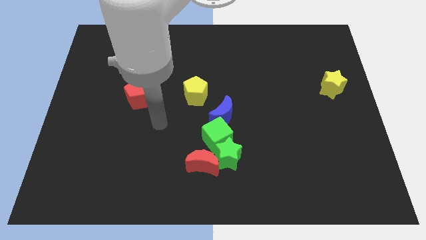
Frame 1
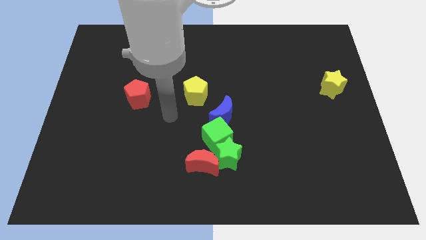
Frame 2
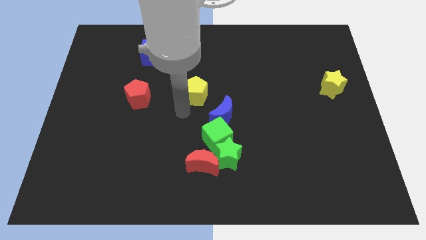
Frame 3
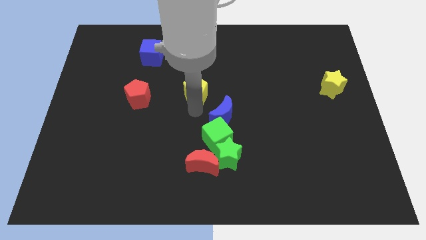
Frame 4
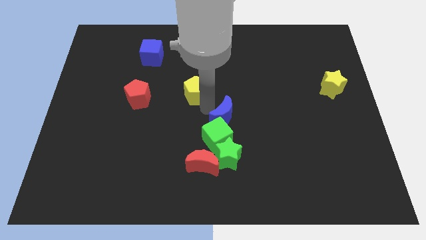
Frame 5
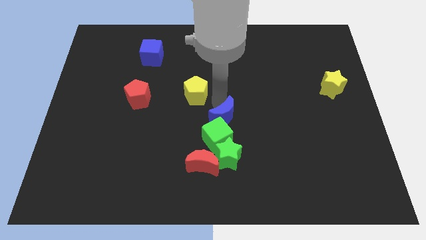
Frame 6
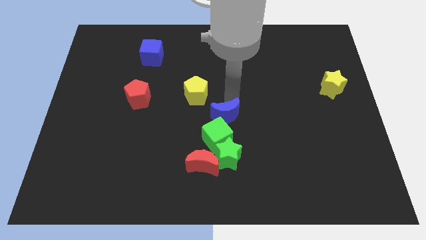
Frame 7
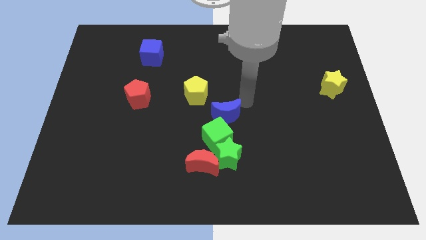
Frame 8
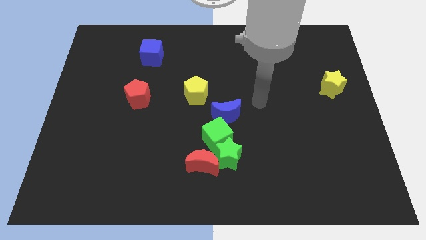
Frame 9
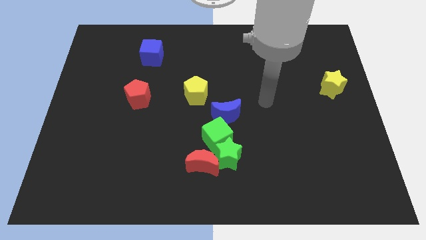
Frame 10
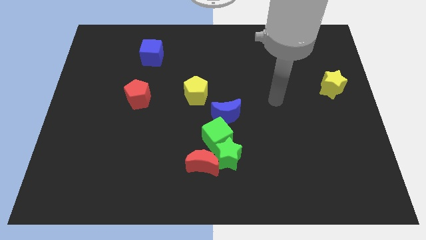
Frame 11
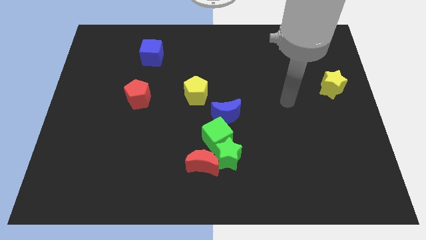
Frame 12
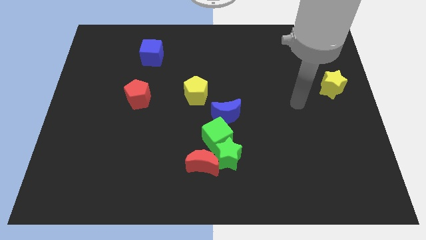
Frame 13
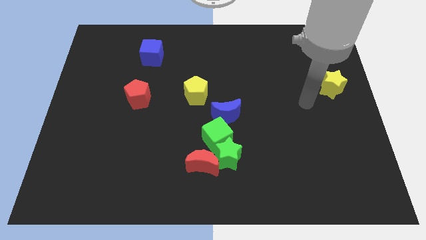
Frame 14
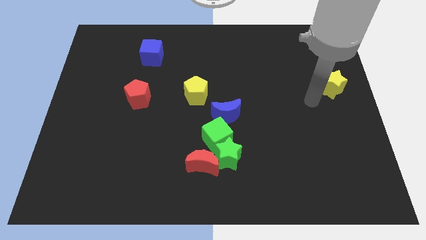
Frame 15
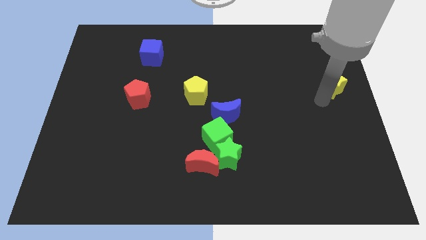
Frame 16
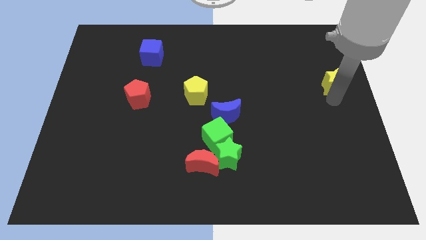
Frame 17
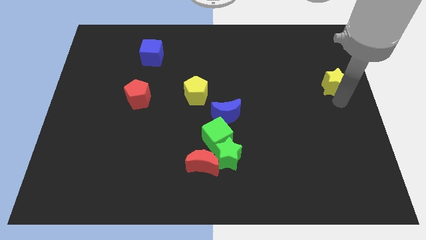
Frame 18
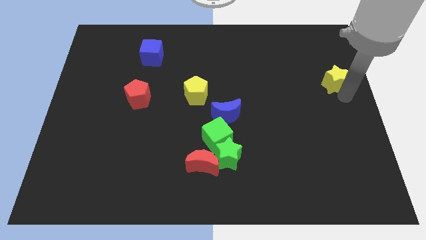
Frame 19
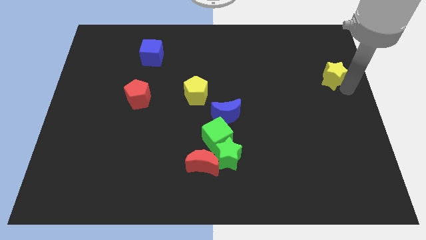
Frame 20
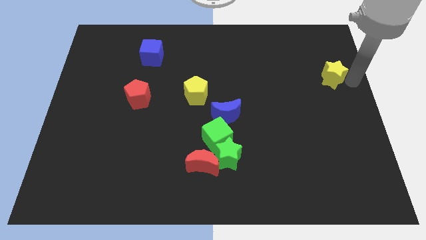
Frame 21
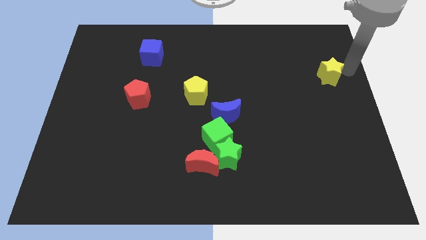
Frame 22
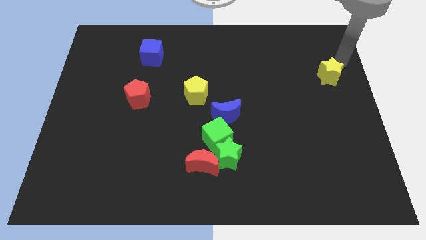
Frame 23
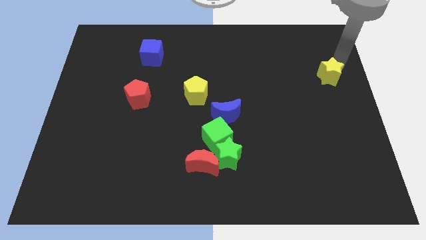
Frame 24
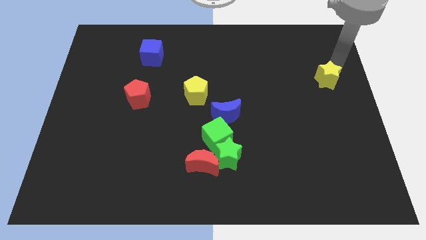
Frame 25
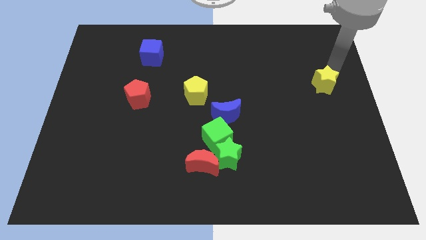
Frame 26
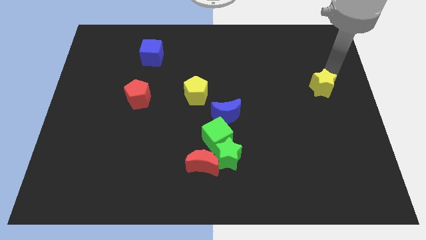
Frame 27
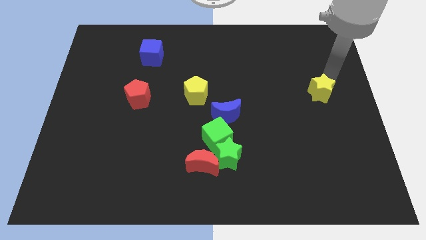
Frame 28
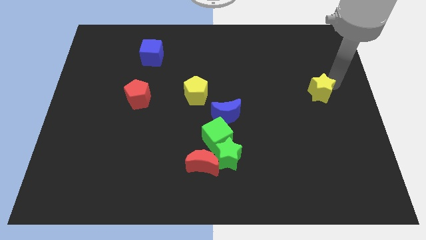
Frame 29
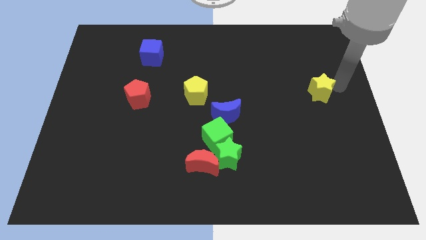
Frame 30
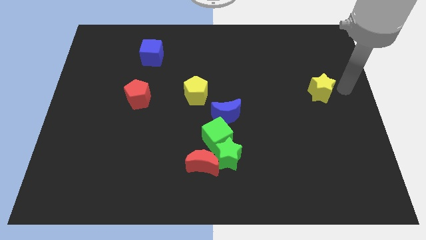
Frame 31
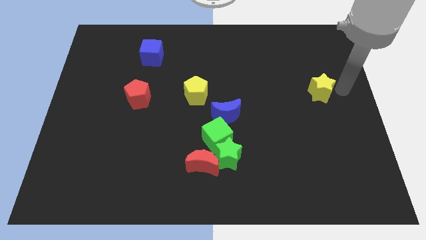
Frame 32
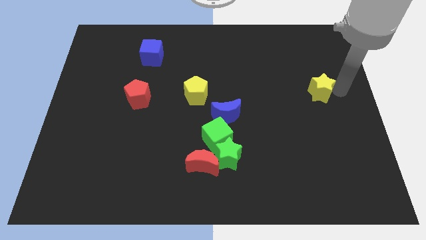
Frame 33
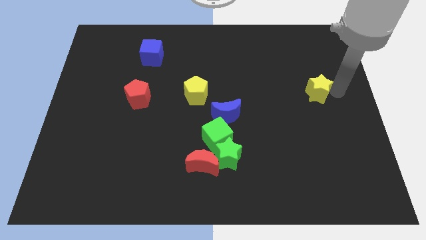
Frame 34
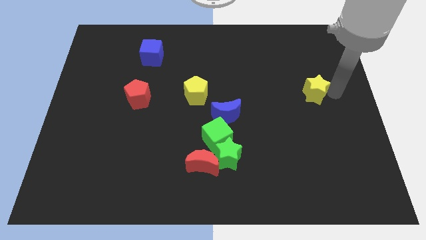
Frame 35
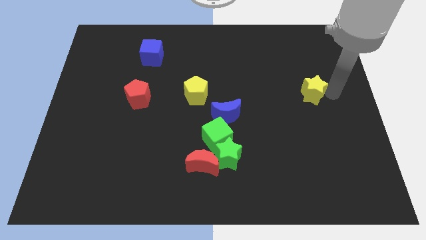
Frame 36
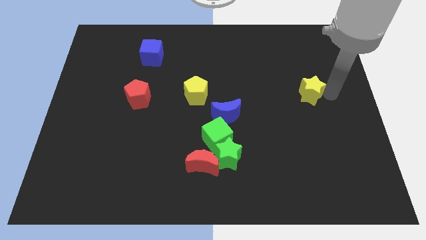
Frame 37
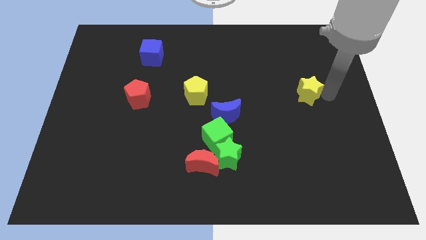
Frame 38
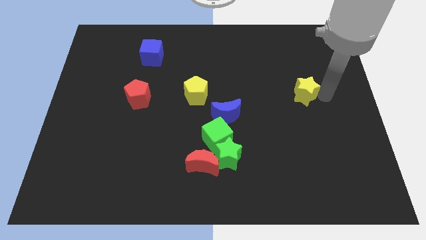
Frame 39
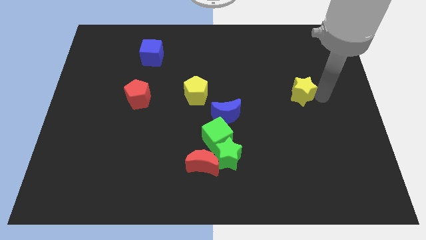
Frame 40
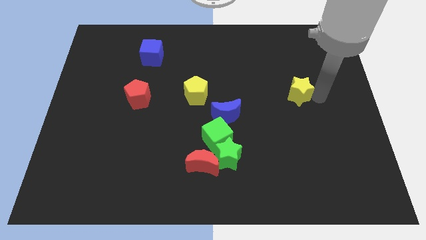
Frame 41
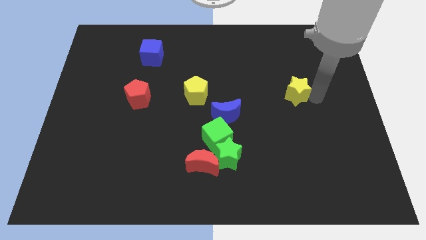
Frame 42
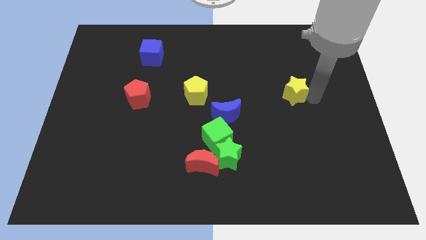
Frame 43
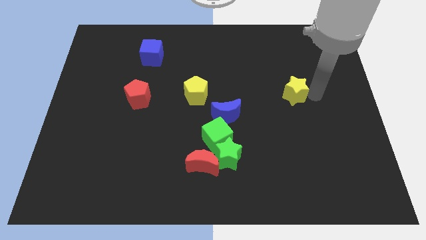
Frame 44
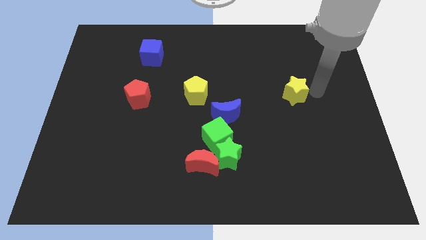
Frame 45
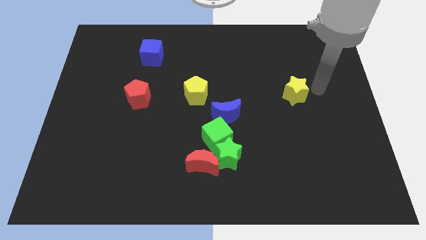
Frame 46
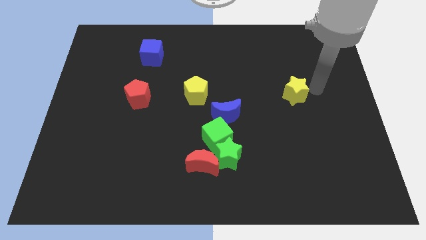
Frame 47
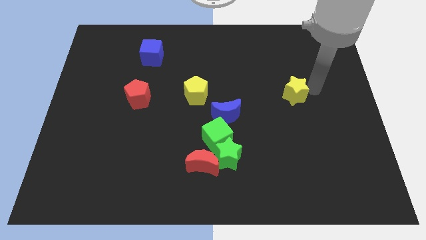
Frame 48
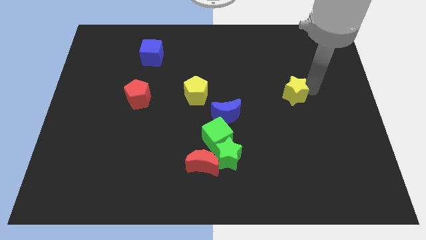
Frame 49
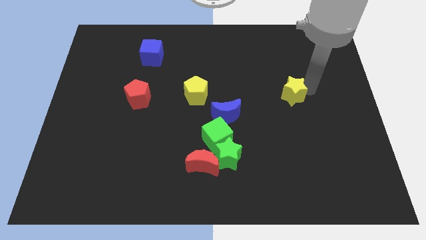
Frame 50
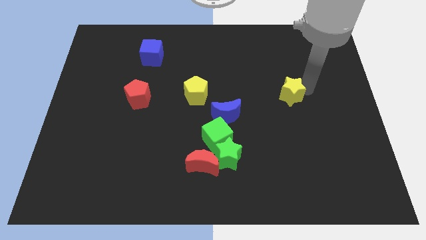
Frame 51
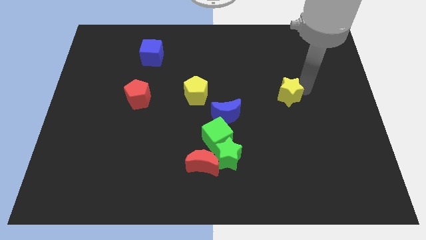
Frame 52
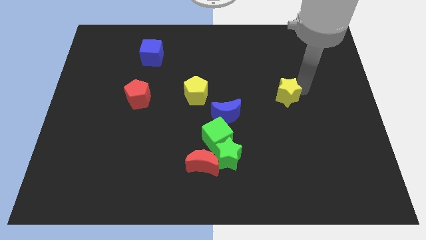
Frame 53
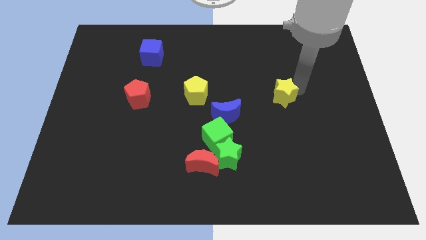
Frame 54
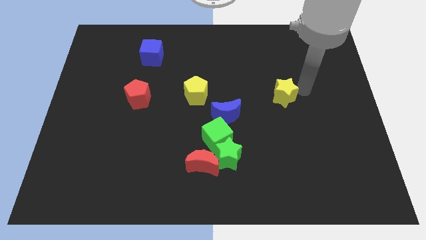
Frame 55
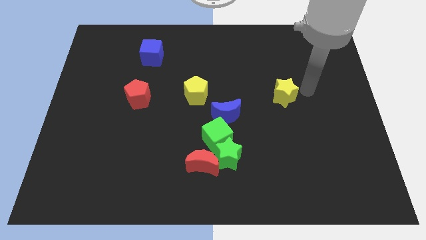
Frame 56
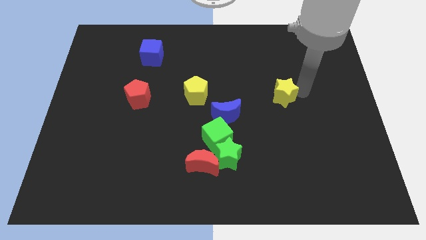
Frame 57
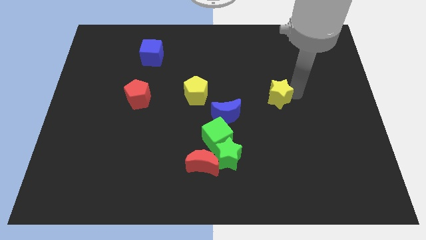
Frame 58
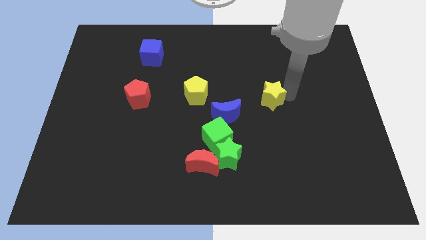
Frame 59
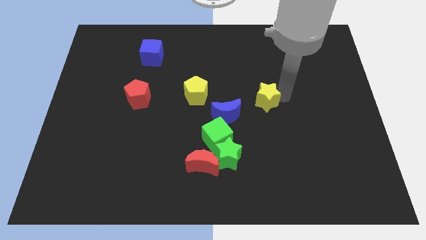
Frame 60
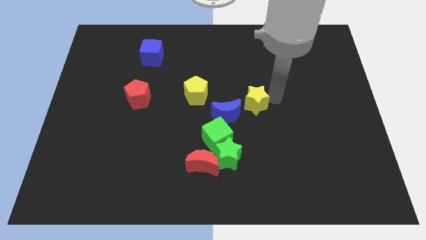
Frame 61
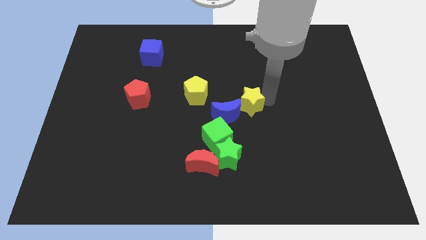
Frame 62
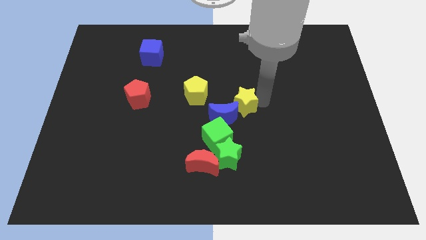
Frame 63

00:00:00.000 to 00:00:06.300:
move the yellow star next to the blue moon

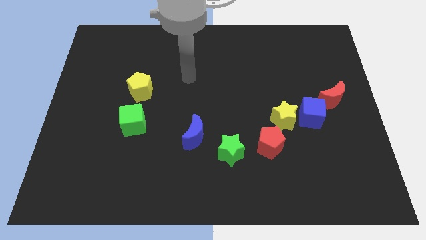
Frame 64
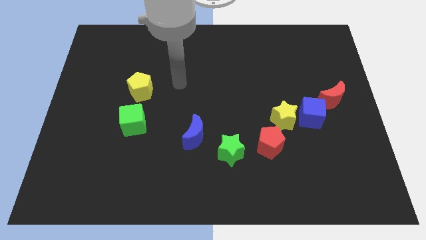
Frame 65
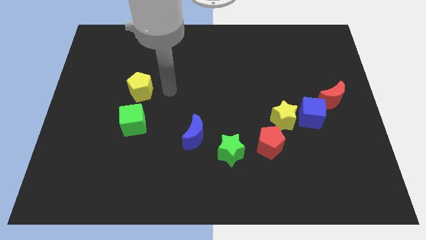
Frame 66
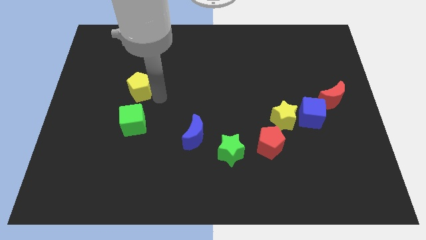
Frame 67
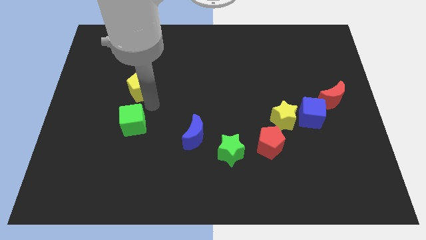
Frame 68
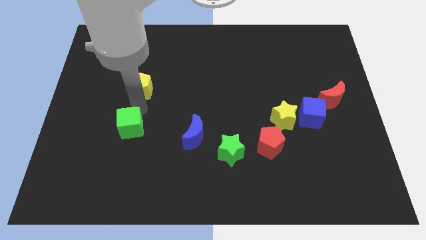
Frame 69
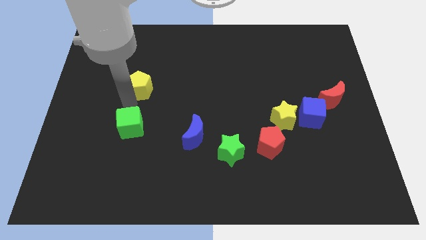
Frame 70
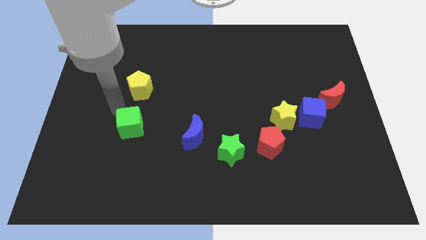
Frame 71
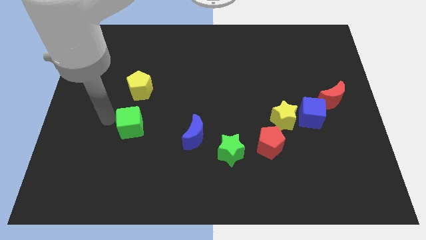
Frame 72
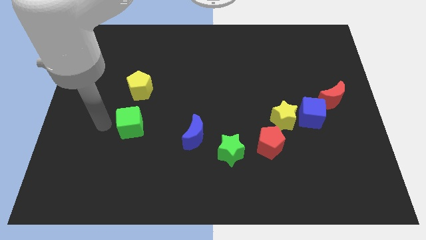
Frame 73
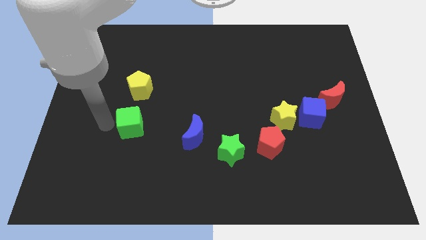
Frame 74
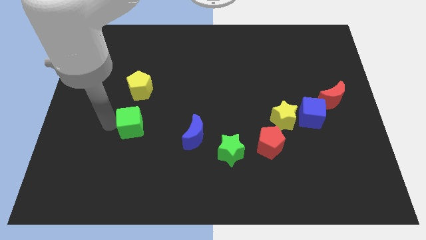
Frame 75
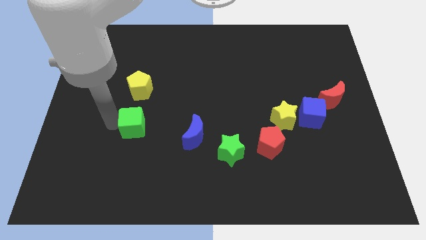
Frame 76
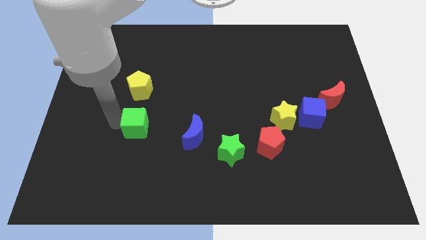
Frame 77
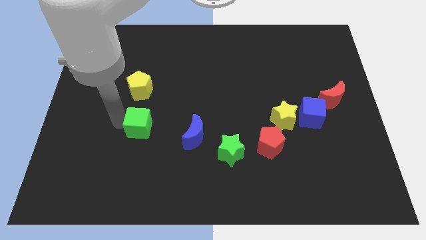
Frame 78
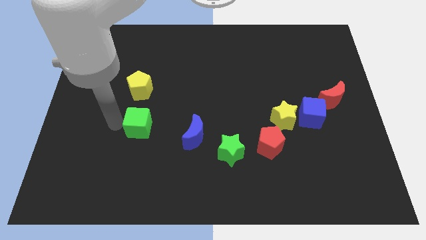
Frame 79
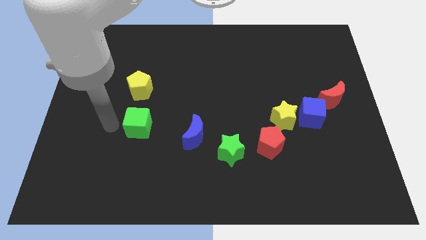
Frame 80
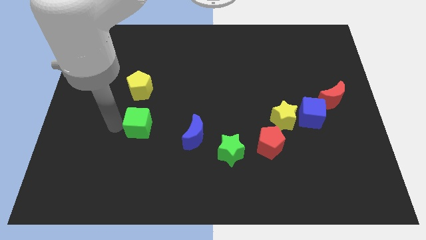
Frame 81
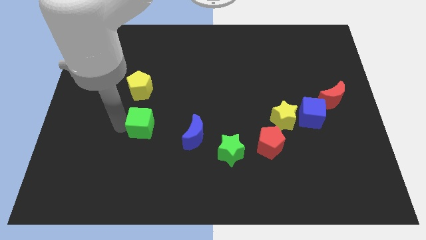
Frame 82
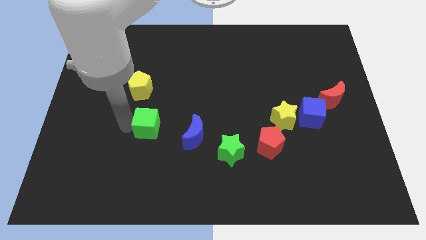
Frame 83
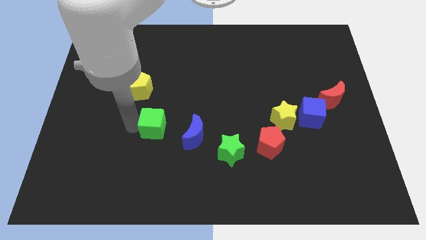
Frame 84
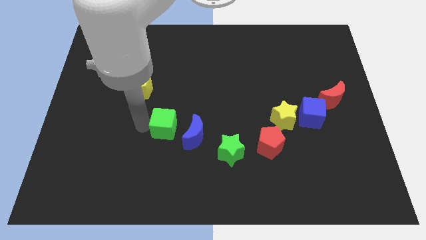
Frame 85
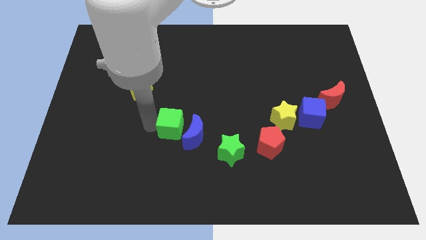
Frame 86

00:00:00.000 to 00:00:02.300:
put the green cube to the blue moon
